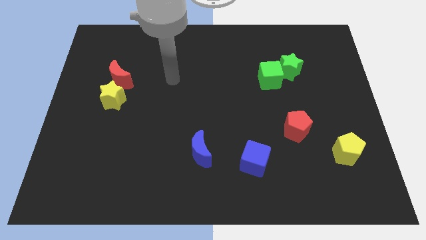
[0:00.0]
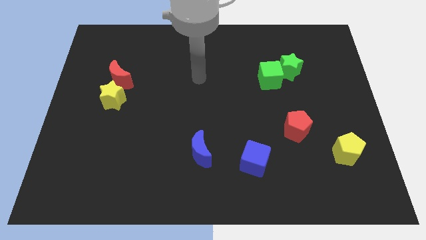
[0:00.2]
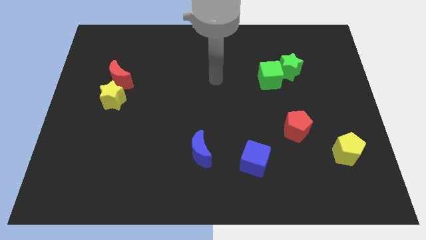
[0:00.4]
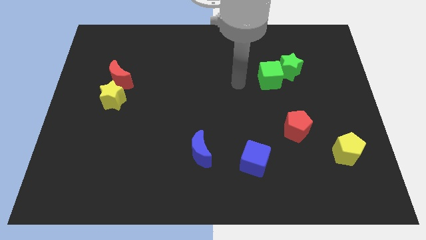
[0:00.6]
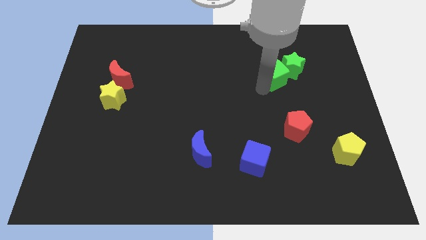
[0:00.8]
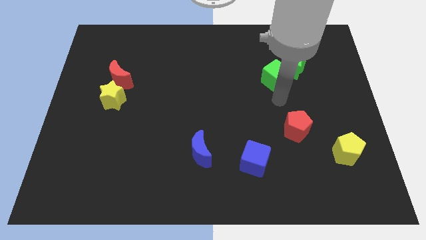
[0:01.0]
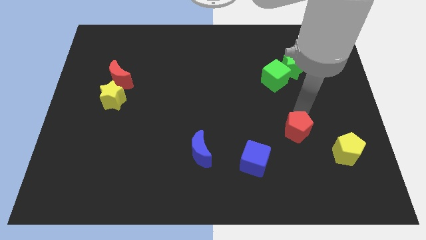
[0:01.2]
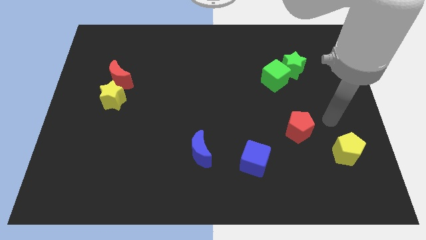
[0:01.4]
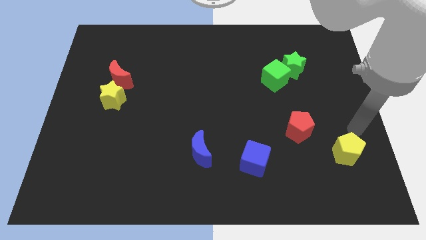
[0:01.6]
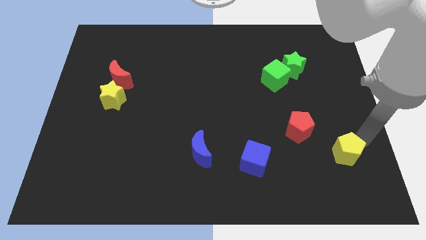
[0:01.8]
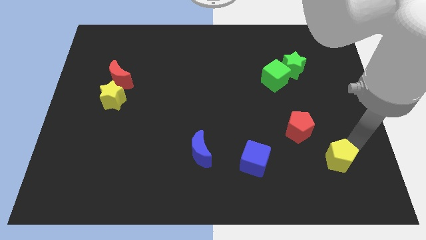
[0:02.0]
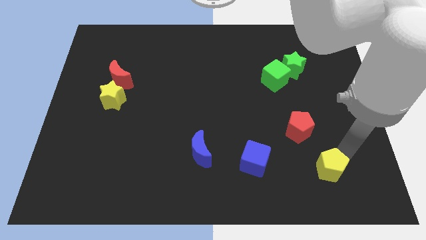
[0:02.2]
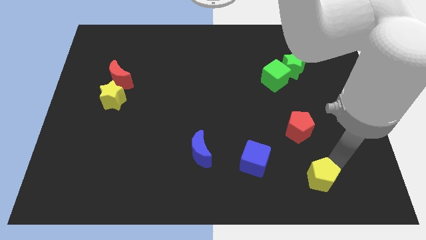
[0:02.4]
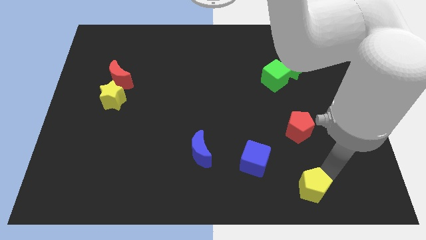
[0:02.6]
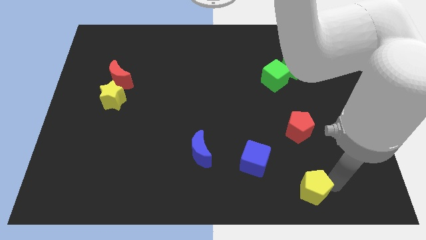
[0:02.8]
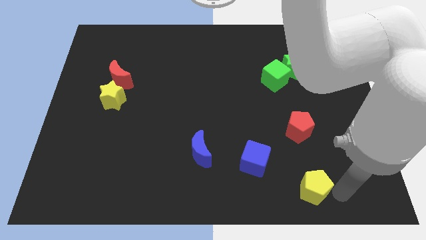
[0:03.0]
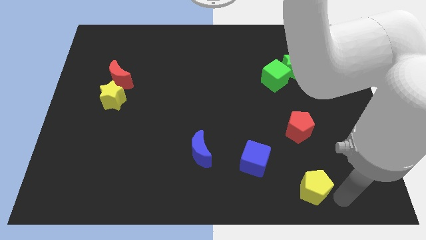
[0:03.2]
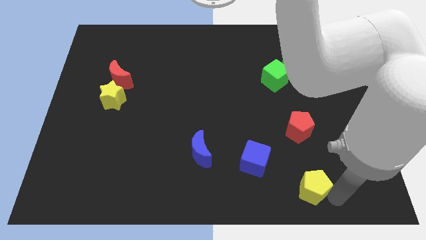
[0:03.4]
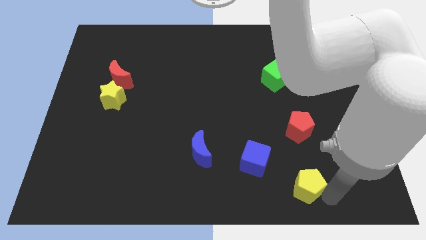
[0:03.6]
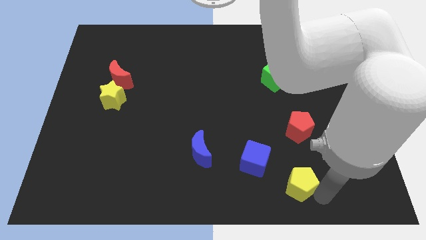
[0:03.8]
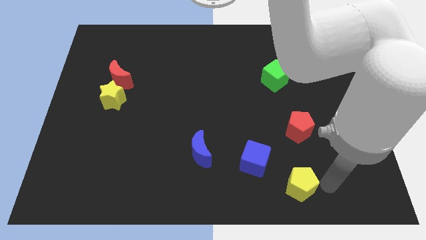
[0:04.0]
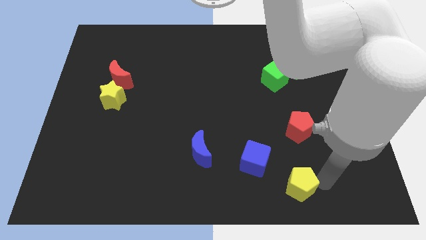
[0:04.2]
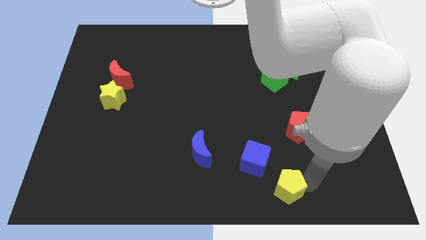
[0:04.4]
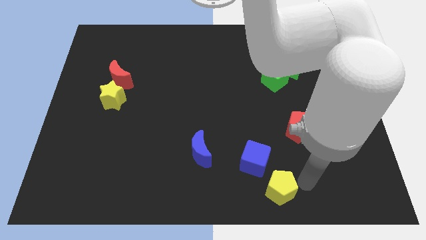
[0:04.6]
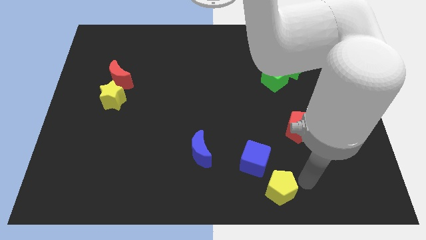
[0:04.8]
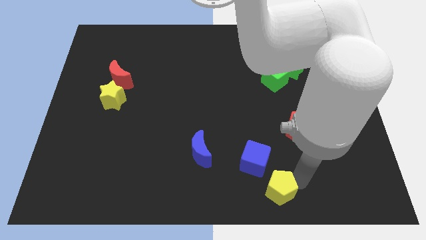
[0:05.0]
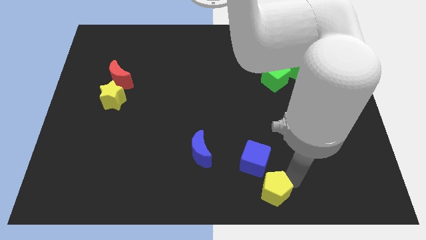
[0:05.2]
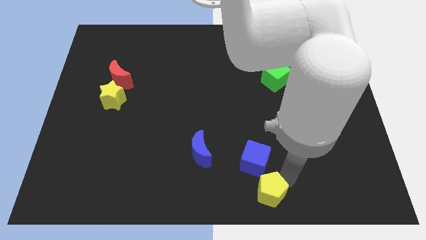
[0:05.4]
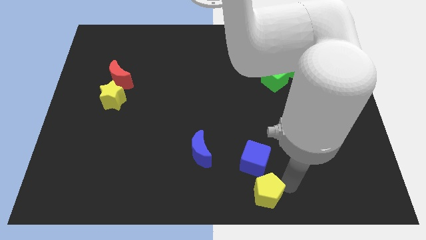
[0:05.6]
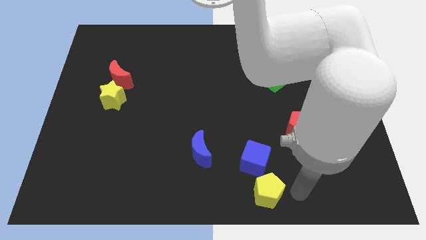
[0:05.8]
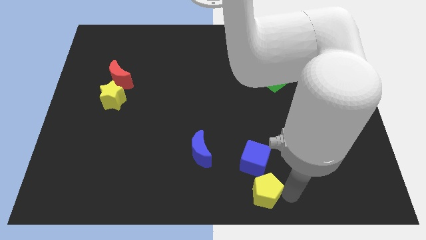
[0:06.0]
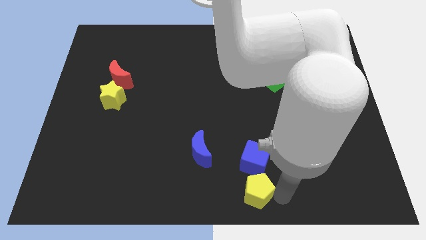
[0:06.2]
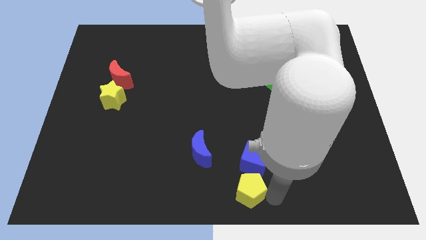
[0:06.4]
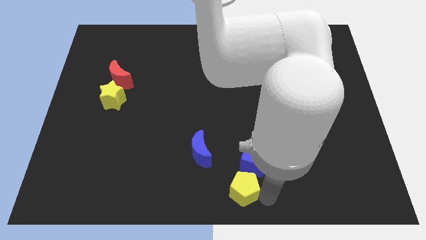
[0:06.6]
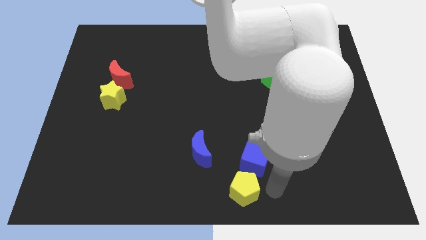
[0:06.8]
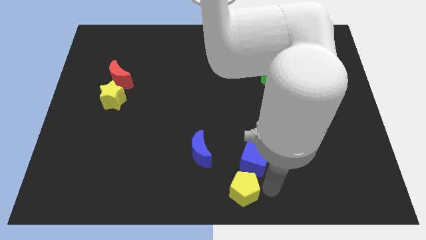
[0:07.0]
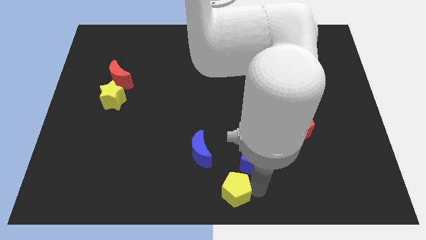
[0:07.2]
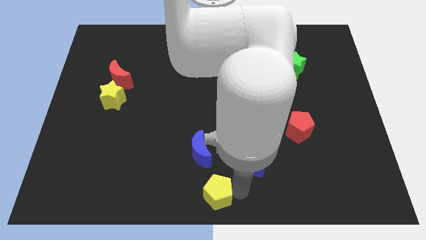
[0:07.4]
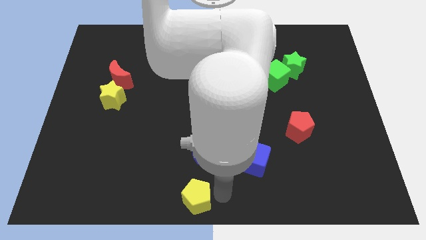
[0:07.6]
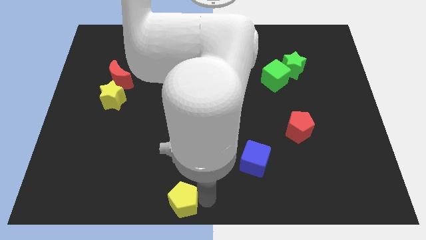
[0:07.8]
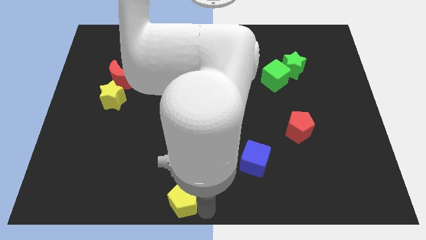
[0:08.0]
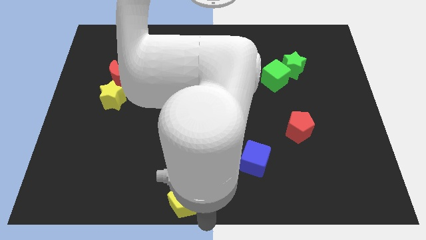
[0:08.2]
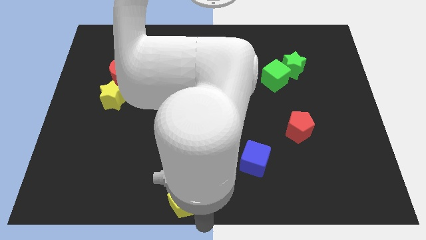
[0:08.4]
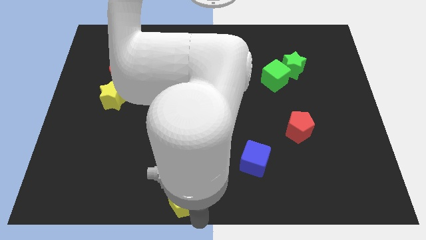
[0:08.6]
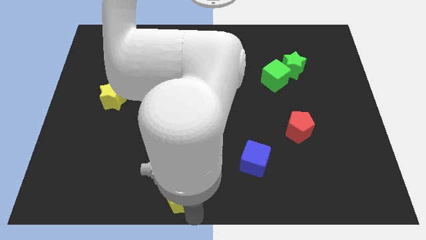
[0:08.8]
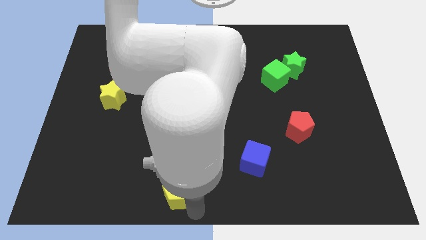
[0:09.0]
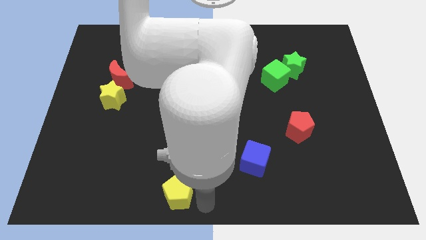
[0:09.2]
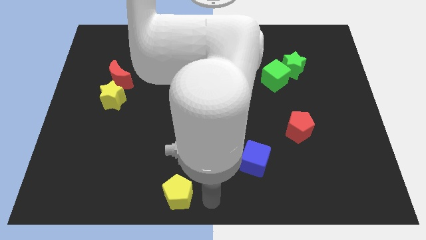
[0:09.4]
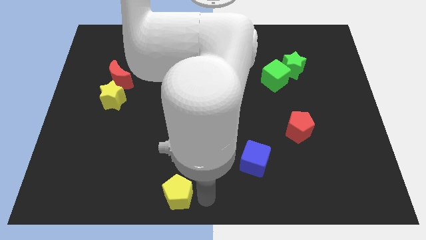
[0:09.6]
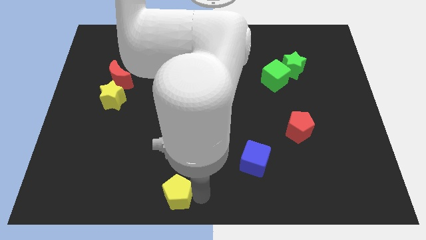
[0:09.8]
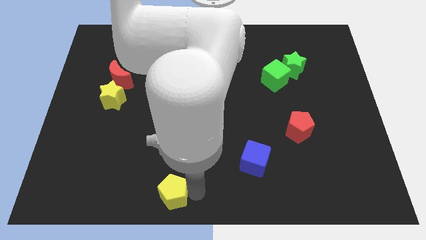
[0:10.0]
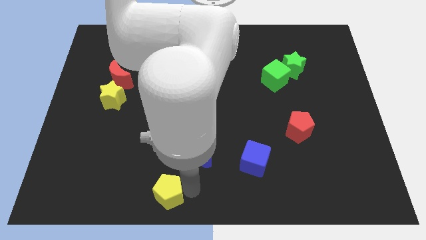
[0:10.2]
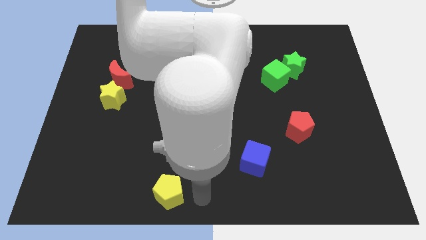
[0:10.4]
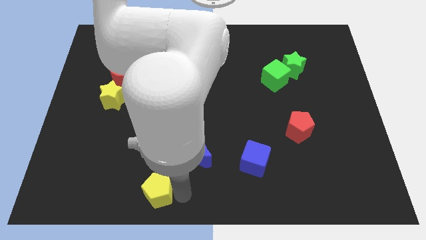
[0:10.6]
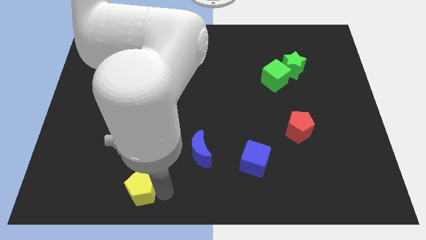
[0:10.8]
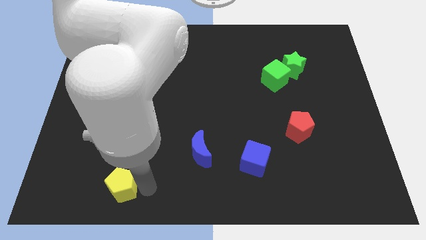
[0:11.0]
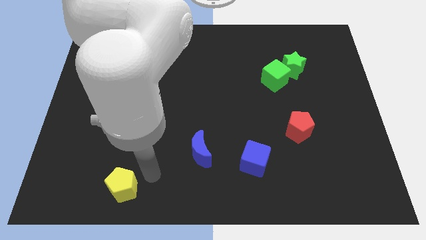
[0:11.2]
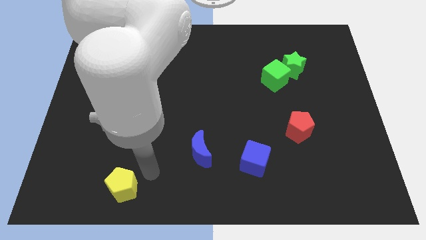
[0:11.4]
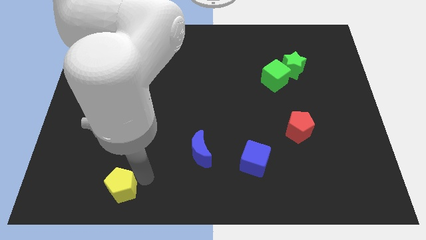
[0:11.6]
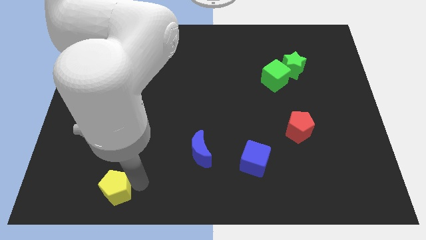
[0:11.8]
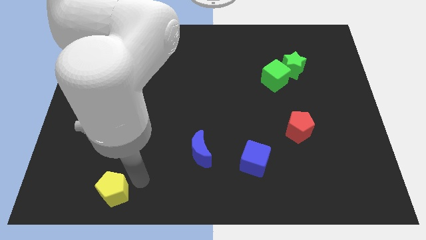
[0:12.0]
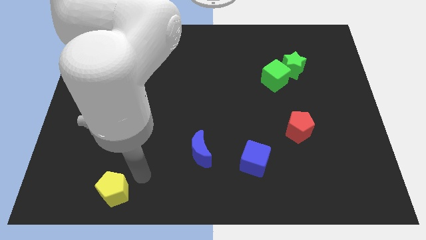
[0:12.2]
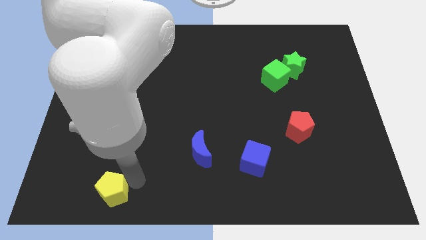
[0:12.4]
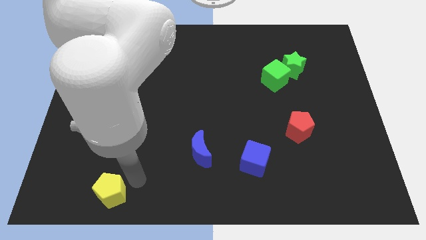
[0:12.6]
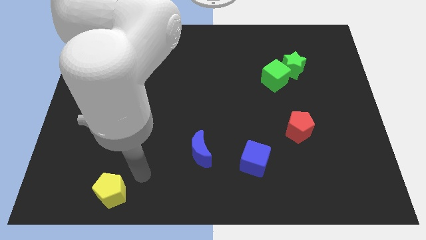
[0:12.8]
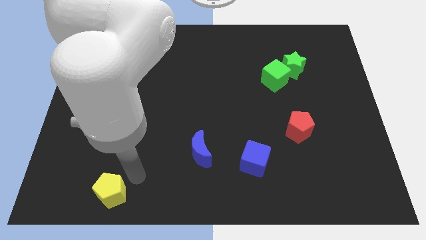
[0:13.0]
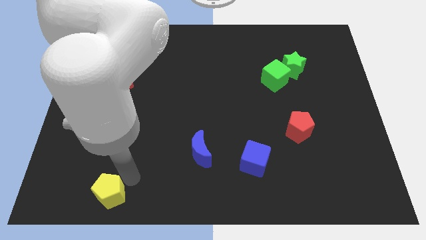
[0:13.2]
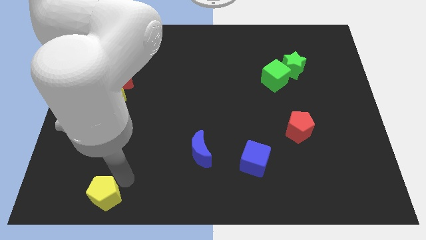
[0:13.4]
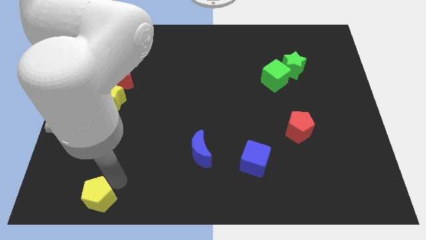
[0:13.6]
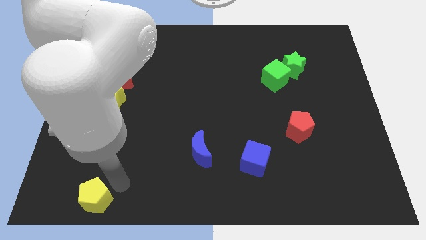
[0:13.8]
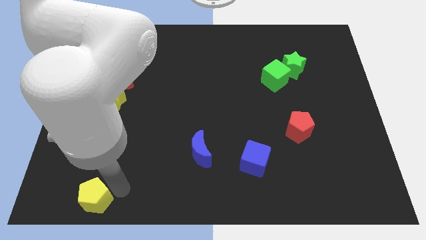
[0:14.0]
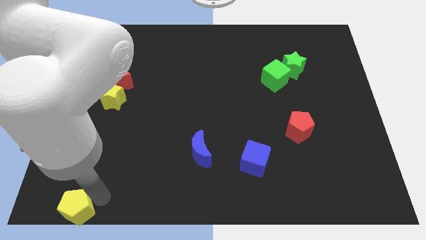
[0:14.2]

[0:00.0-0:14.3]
slide the yellow pentagon to the bottom left corner
